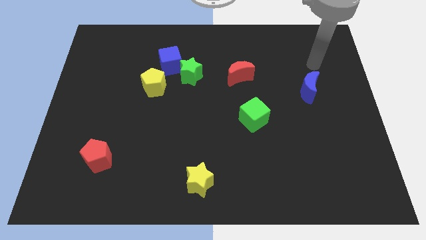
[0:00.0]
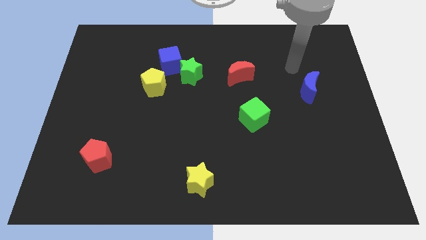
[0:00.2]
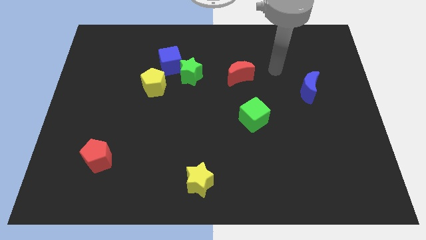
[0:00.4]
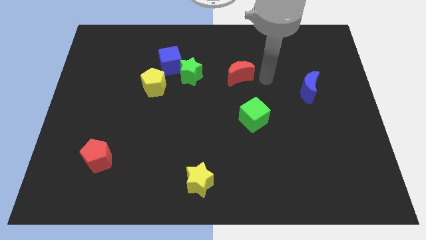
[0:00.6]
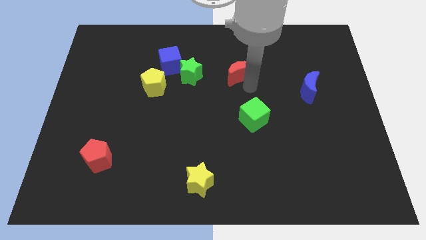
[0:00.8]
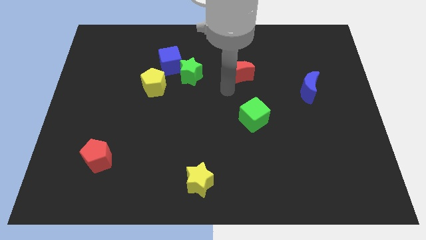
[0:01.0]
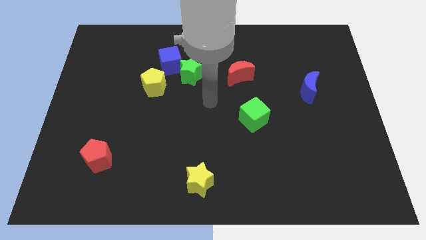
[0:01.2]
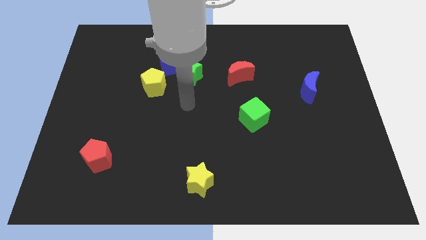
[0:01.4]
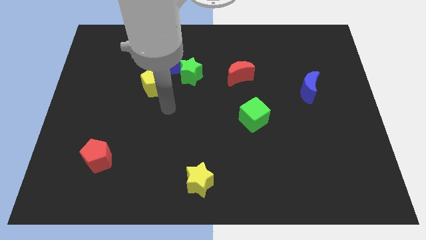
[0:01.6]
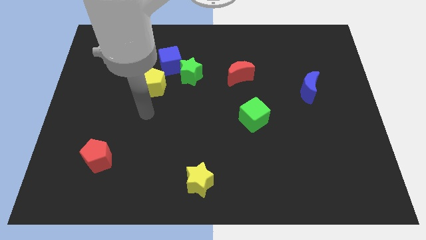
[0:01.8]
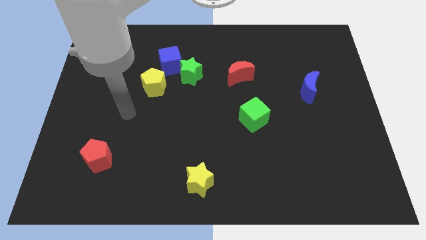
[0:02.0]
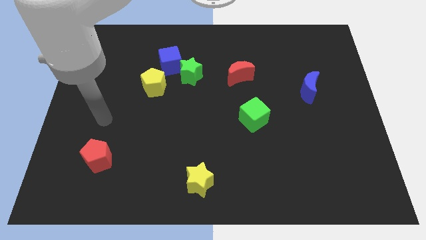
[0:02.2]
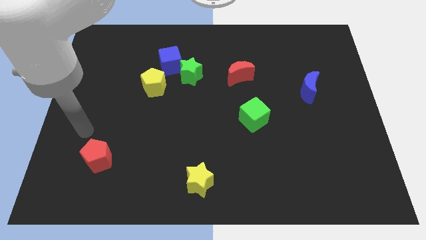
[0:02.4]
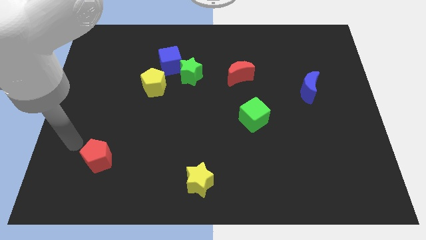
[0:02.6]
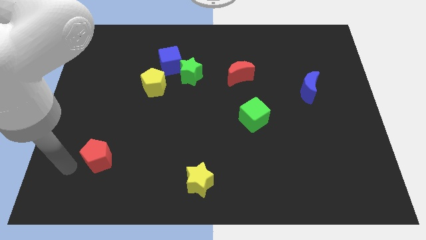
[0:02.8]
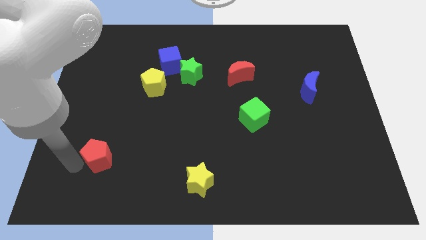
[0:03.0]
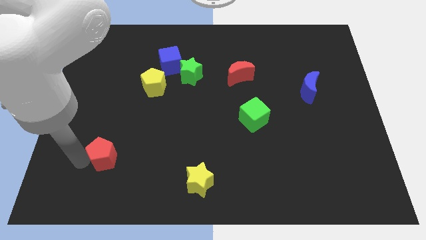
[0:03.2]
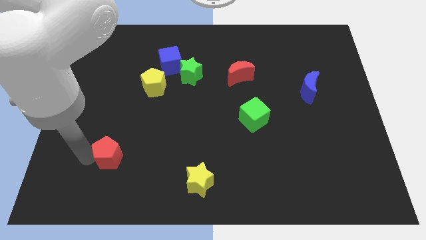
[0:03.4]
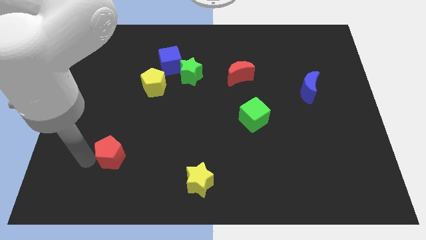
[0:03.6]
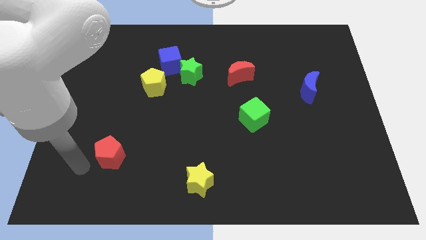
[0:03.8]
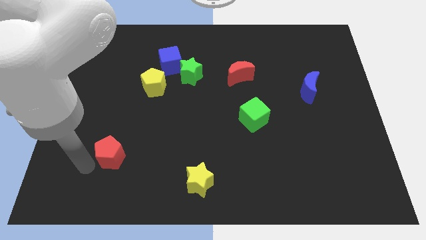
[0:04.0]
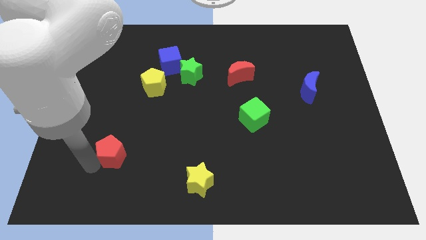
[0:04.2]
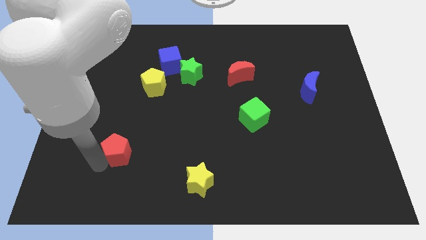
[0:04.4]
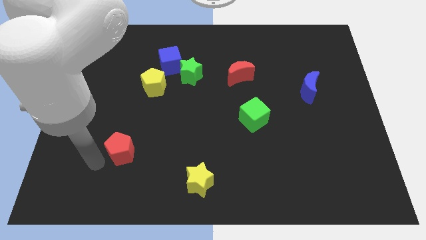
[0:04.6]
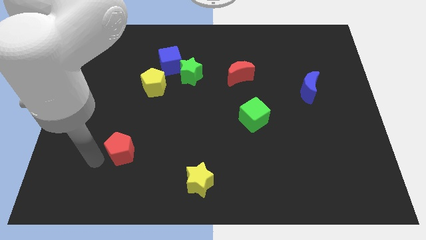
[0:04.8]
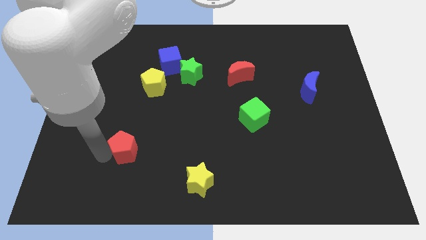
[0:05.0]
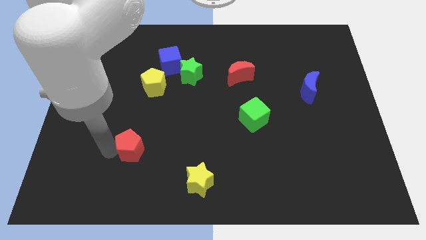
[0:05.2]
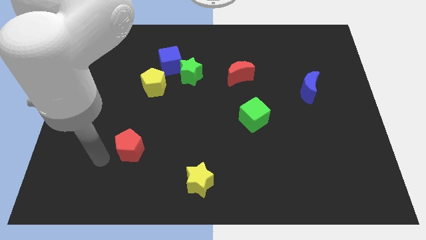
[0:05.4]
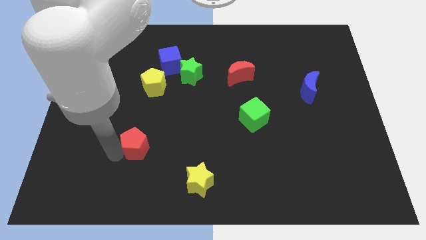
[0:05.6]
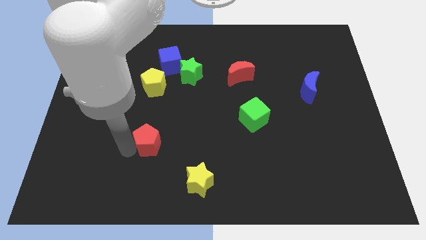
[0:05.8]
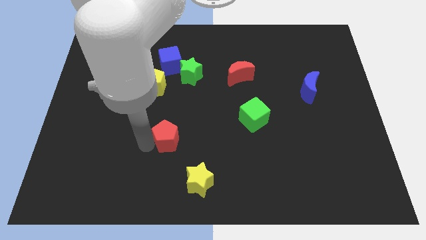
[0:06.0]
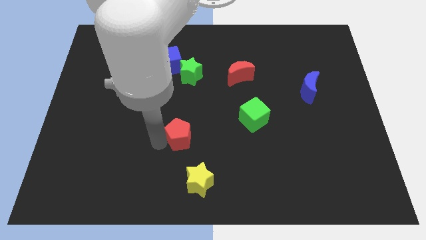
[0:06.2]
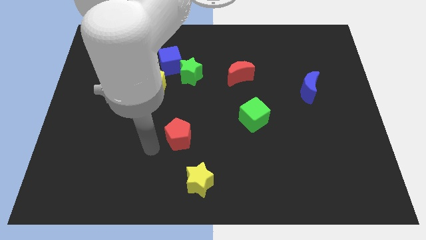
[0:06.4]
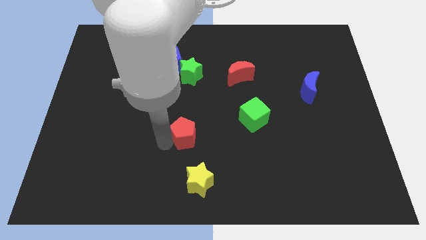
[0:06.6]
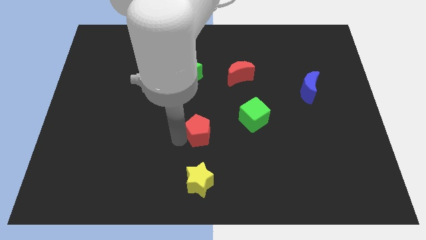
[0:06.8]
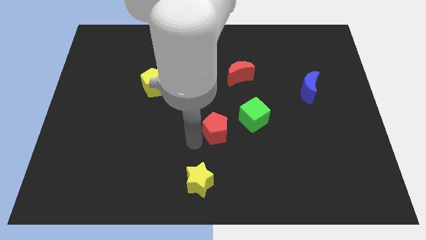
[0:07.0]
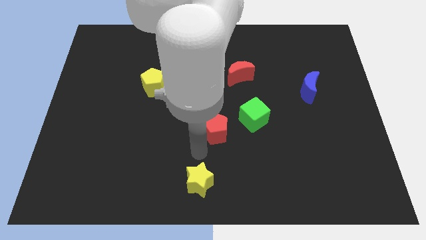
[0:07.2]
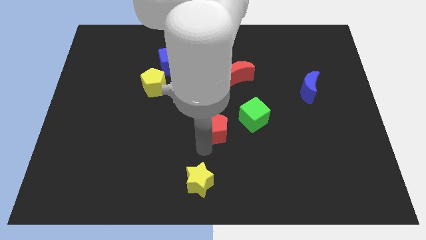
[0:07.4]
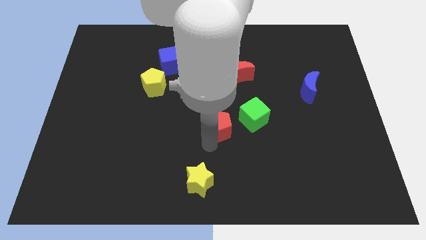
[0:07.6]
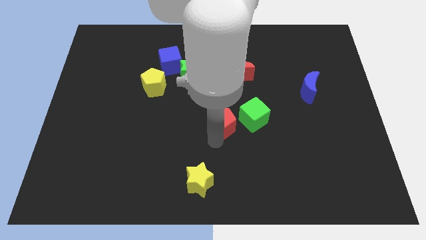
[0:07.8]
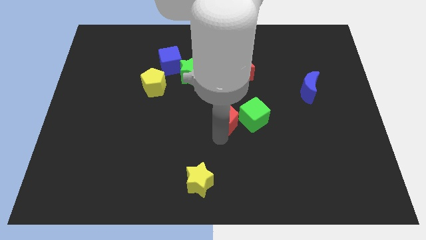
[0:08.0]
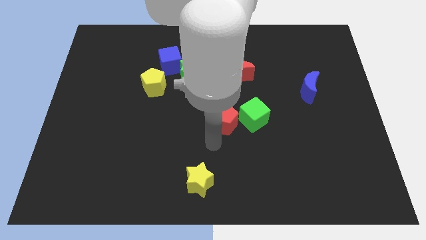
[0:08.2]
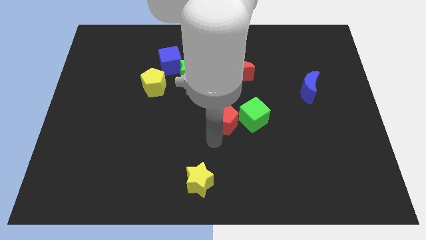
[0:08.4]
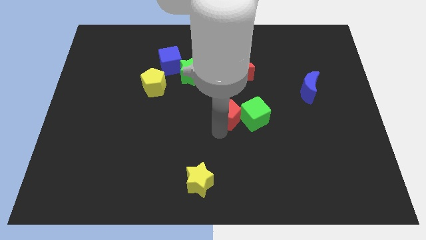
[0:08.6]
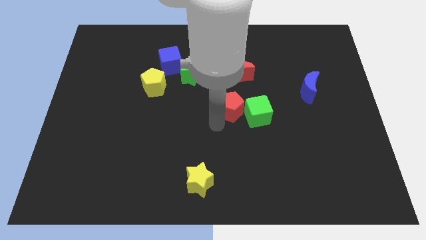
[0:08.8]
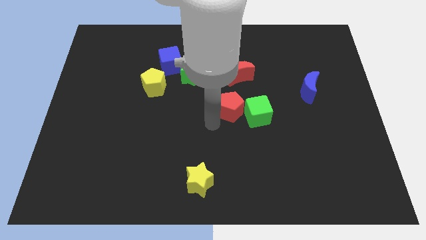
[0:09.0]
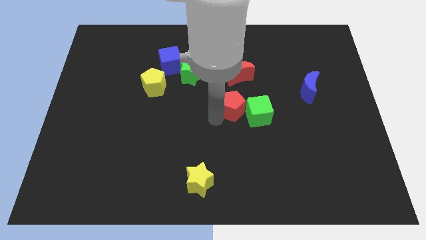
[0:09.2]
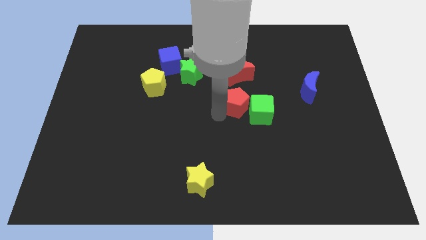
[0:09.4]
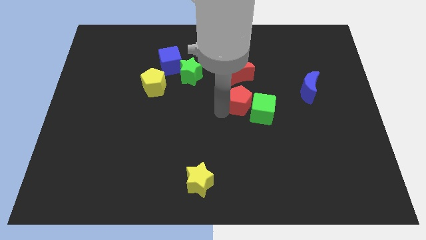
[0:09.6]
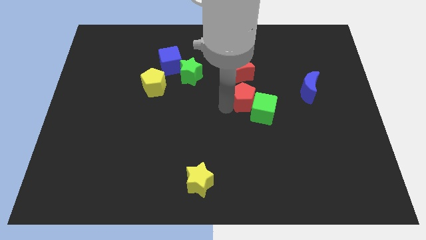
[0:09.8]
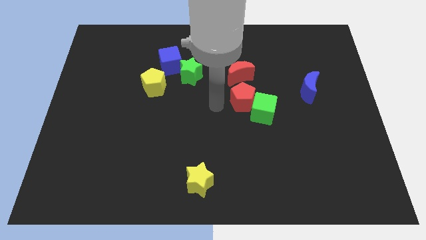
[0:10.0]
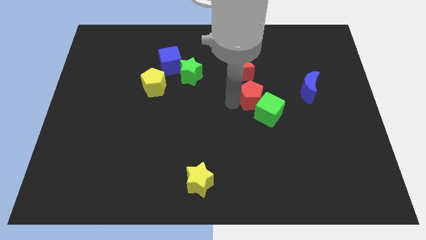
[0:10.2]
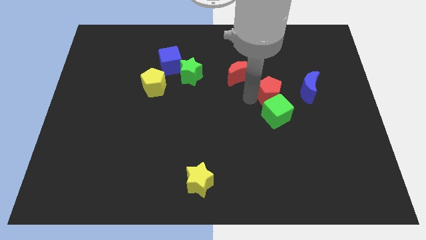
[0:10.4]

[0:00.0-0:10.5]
put the red pentagon diagonally up and to the right of the green cube

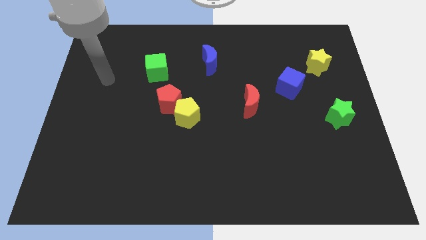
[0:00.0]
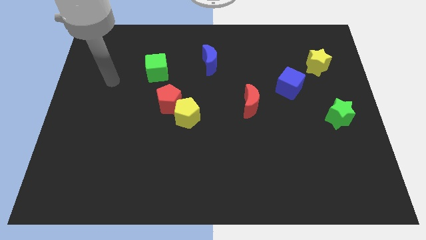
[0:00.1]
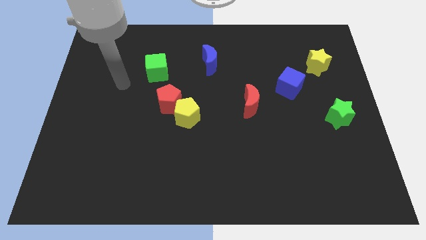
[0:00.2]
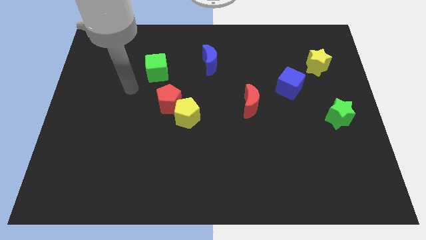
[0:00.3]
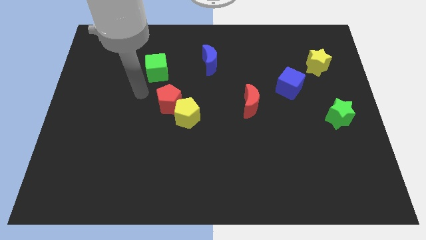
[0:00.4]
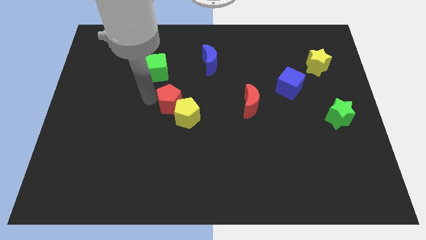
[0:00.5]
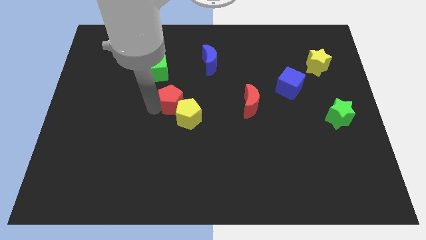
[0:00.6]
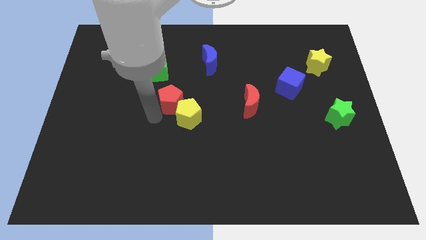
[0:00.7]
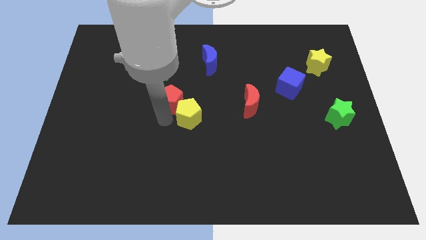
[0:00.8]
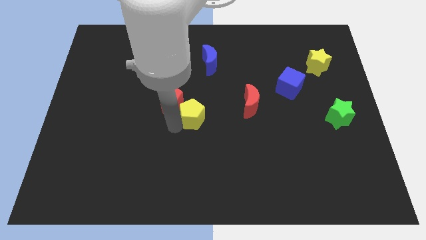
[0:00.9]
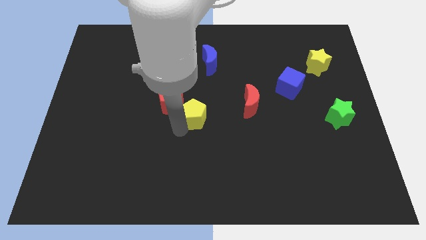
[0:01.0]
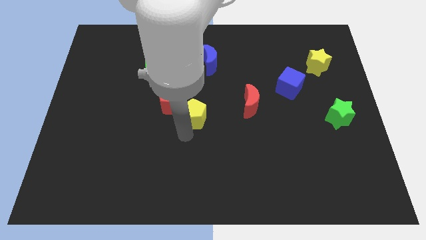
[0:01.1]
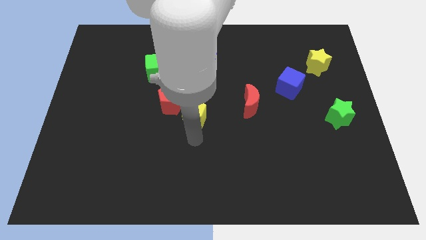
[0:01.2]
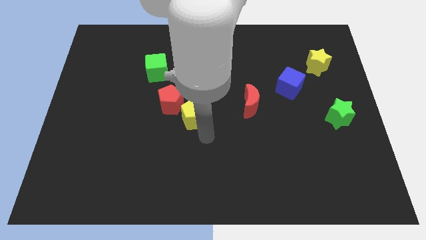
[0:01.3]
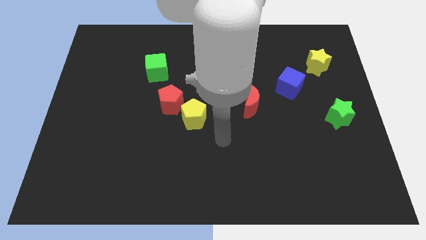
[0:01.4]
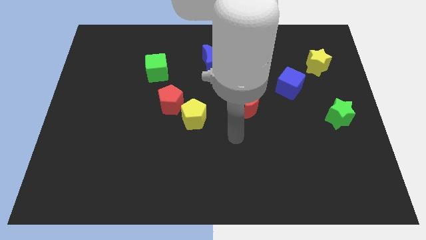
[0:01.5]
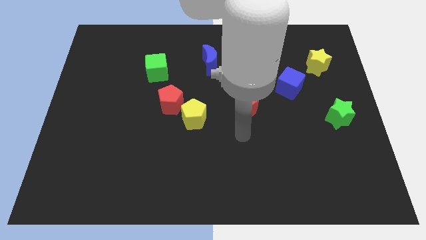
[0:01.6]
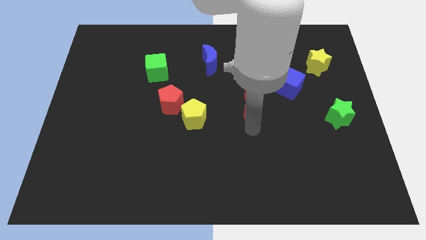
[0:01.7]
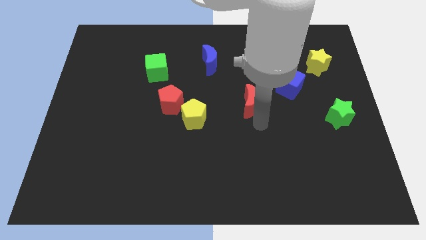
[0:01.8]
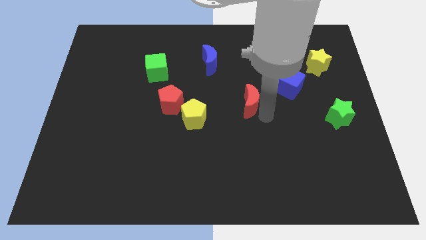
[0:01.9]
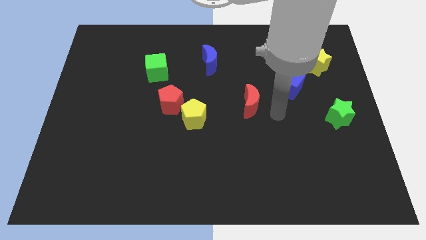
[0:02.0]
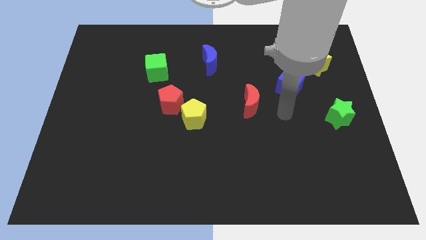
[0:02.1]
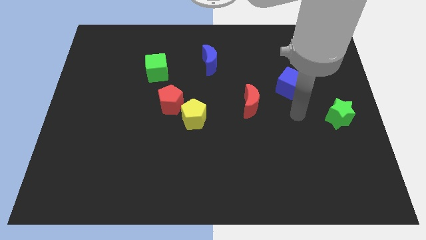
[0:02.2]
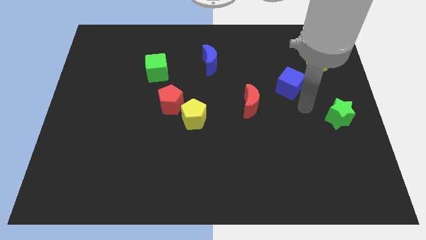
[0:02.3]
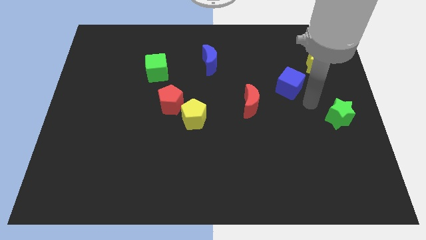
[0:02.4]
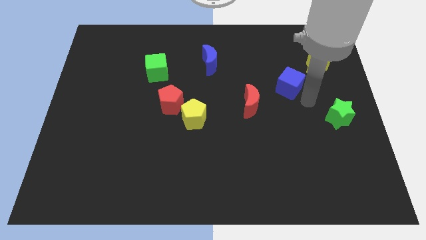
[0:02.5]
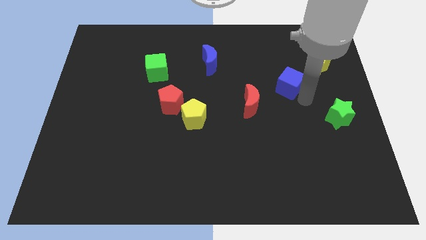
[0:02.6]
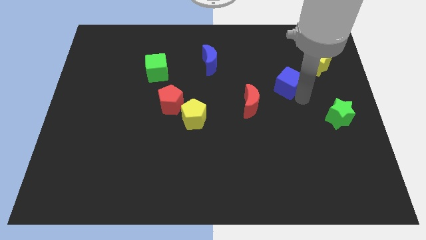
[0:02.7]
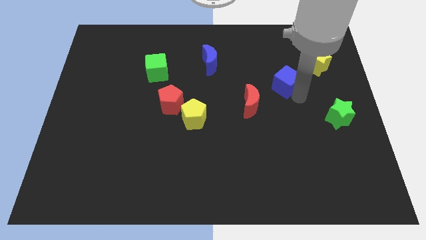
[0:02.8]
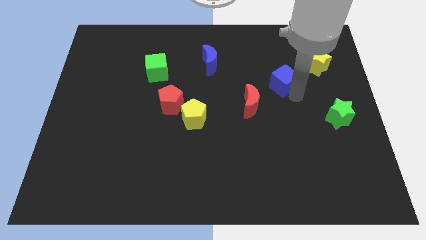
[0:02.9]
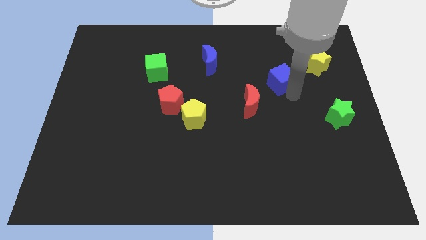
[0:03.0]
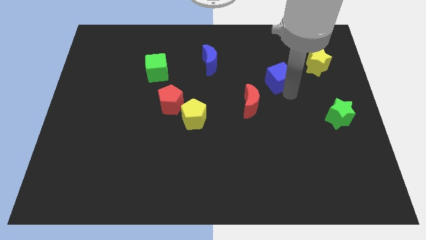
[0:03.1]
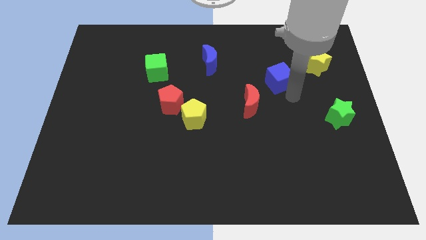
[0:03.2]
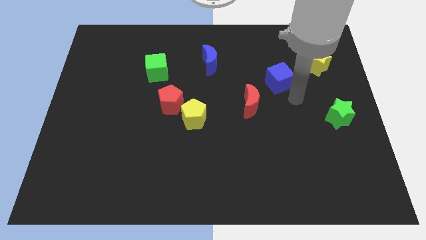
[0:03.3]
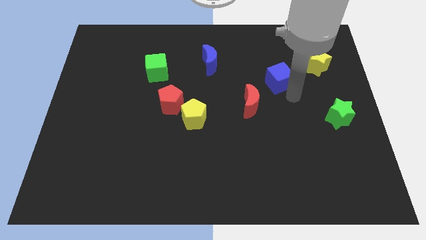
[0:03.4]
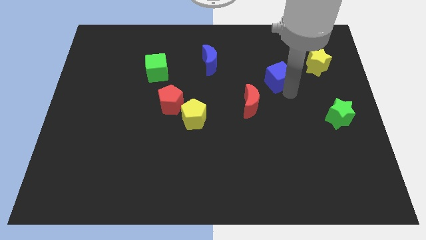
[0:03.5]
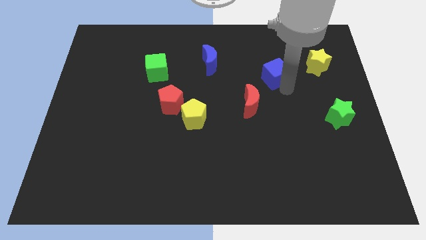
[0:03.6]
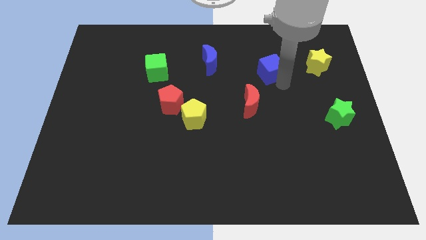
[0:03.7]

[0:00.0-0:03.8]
move the blue cube to the right side of the blue moon
